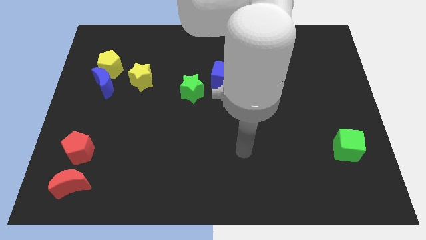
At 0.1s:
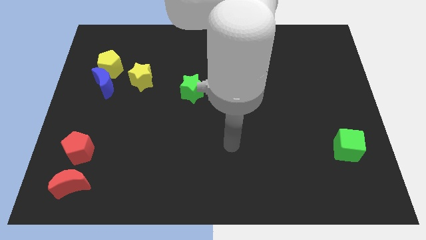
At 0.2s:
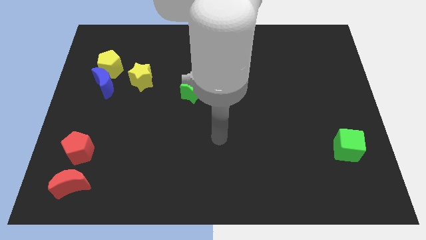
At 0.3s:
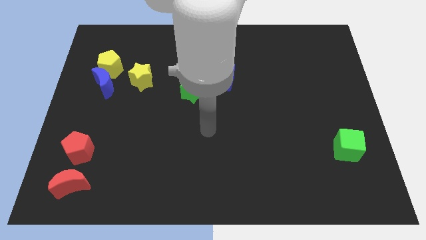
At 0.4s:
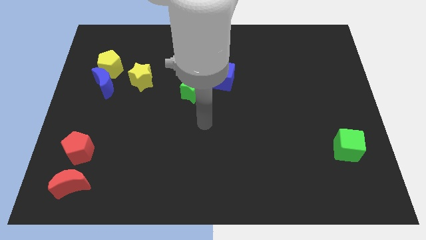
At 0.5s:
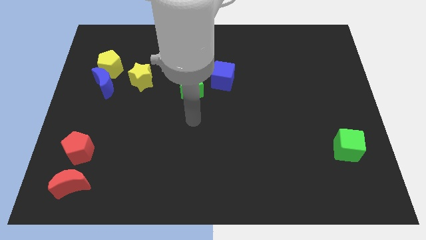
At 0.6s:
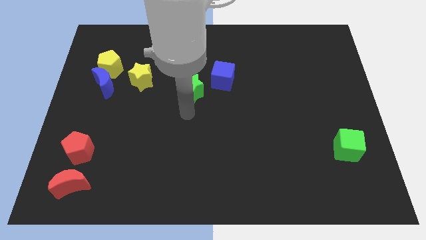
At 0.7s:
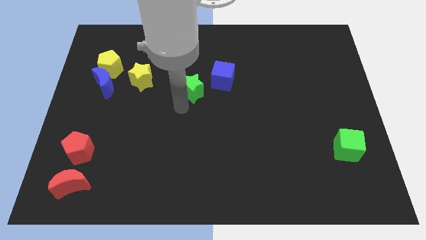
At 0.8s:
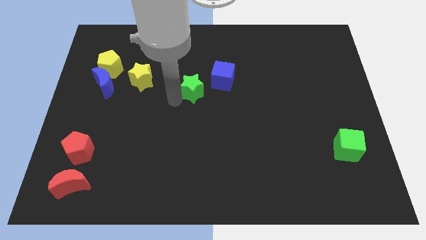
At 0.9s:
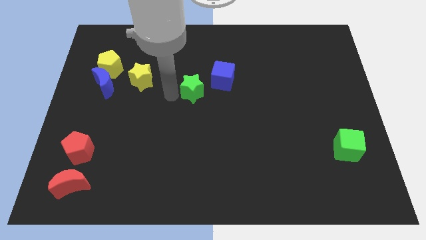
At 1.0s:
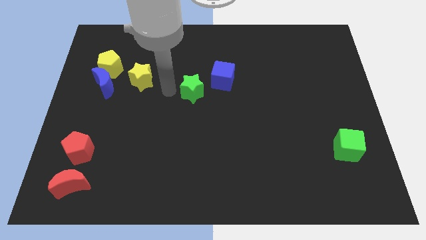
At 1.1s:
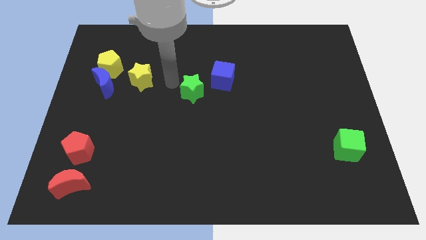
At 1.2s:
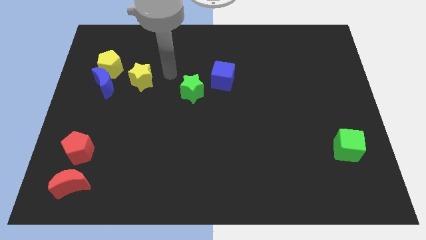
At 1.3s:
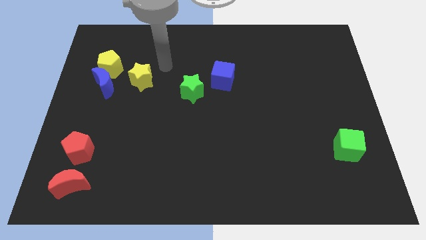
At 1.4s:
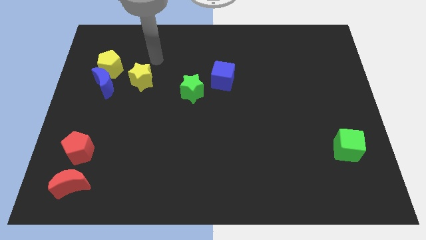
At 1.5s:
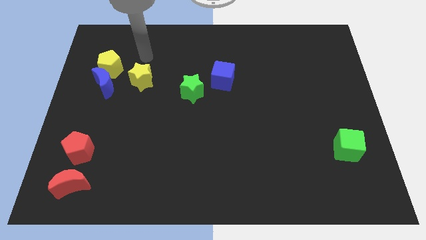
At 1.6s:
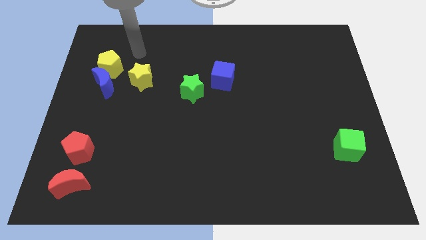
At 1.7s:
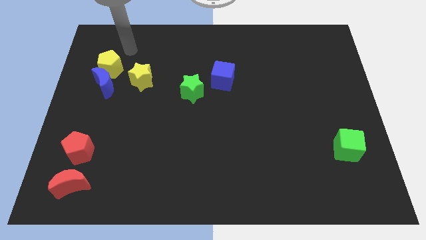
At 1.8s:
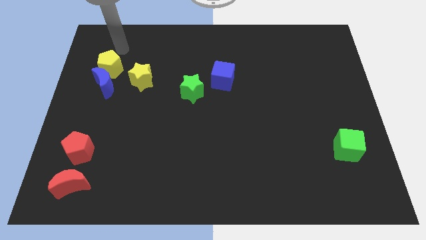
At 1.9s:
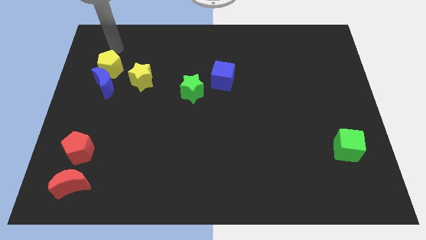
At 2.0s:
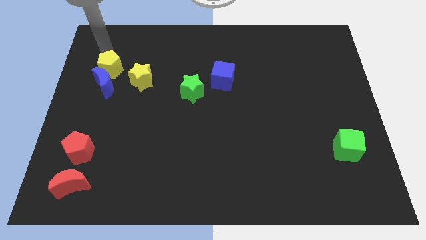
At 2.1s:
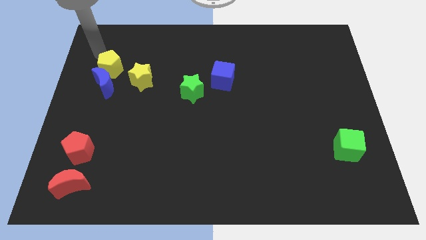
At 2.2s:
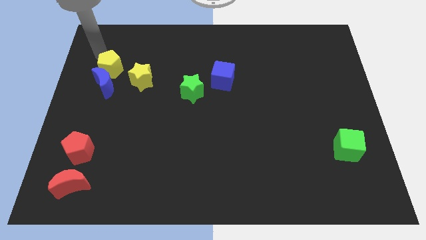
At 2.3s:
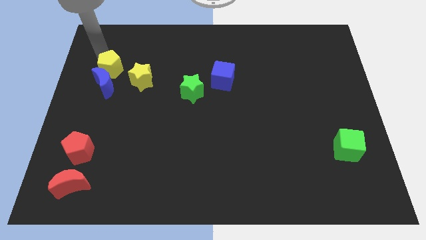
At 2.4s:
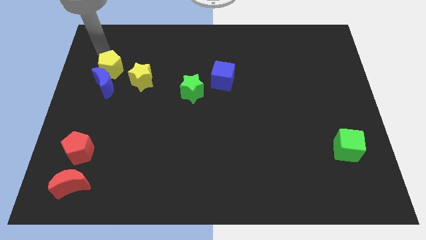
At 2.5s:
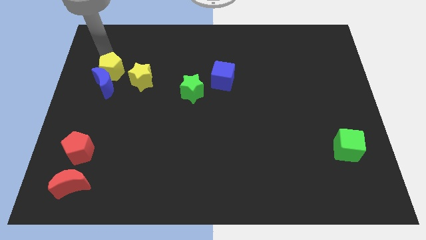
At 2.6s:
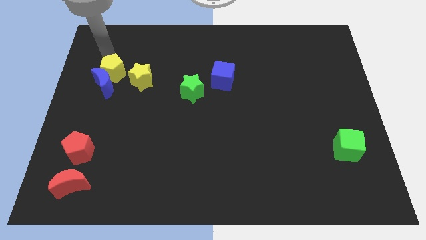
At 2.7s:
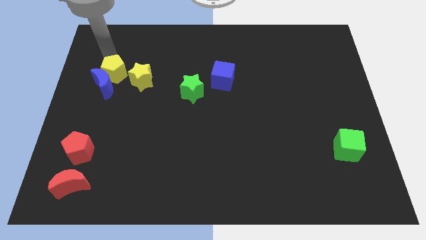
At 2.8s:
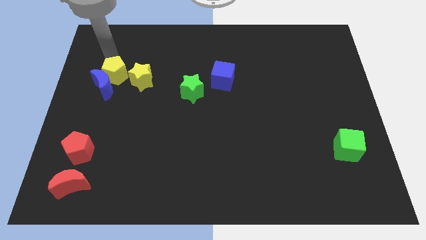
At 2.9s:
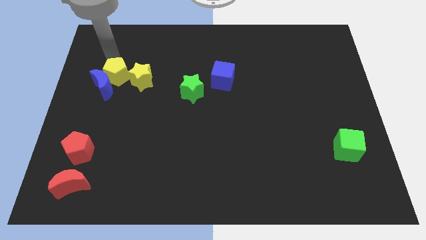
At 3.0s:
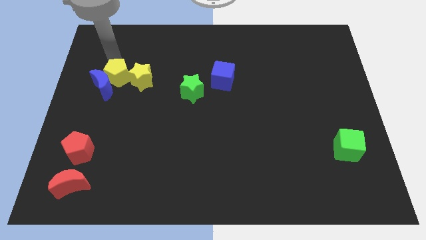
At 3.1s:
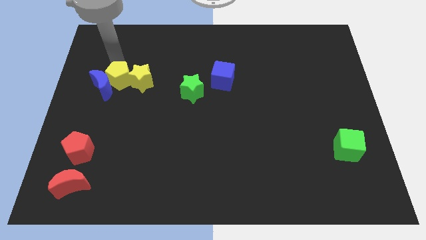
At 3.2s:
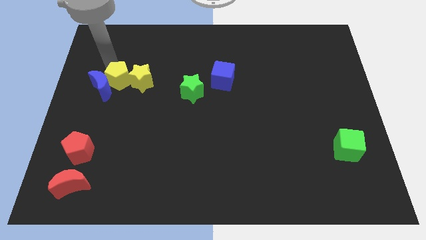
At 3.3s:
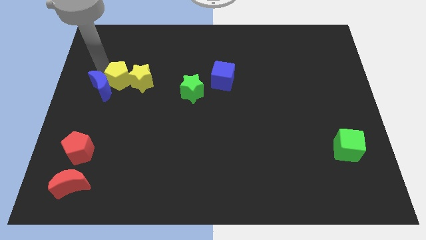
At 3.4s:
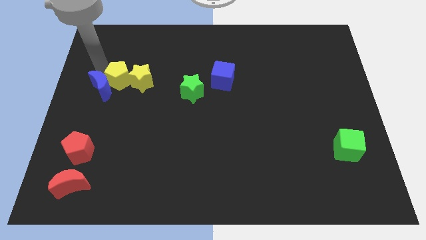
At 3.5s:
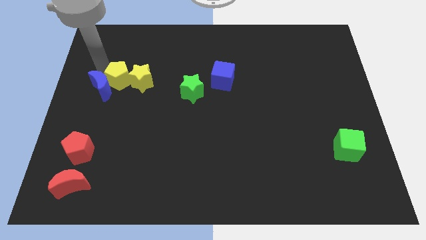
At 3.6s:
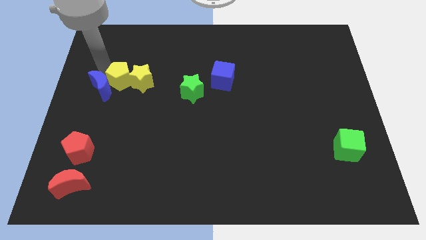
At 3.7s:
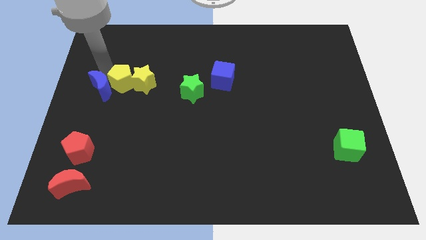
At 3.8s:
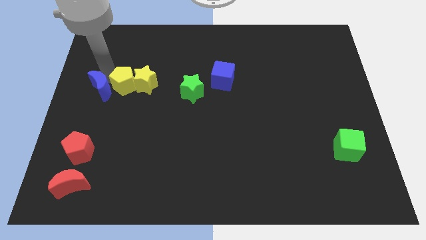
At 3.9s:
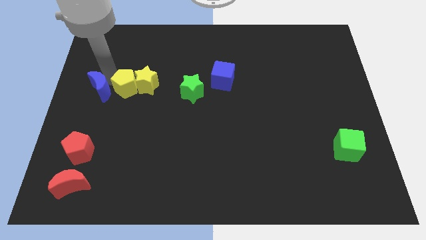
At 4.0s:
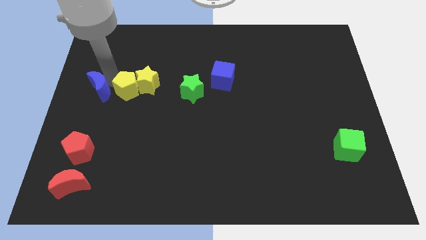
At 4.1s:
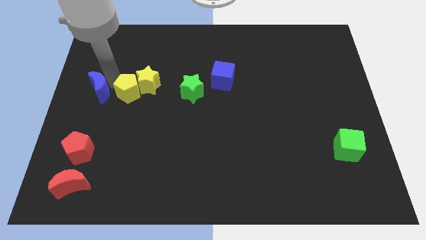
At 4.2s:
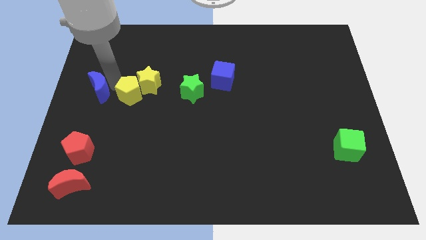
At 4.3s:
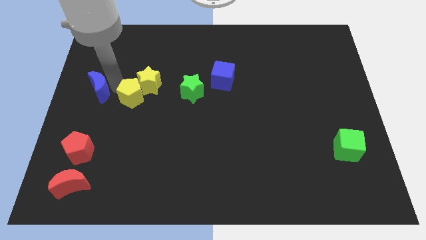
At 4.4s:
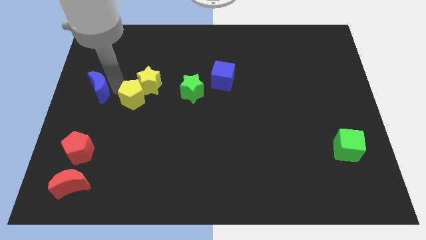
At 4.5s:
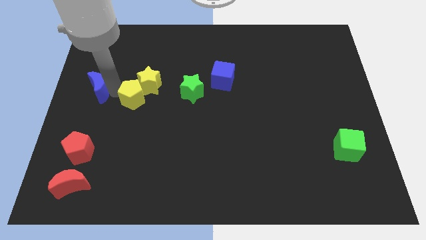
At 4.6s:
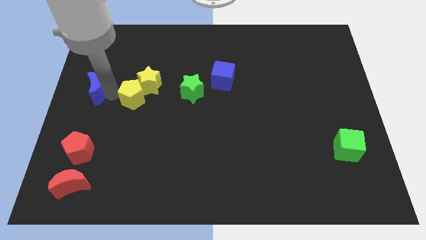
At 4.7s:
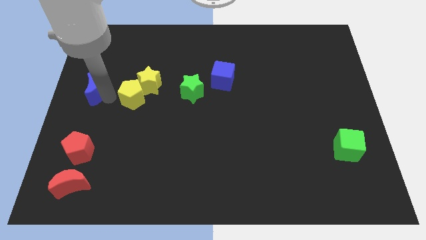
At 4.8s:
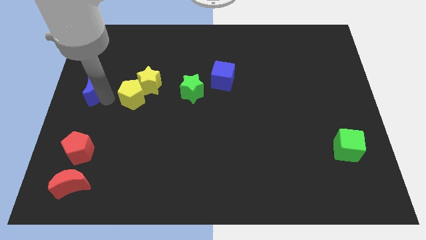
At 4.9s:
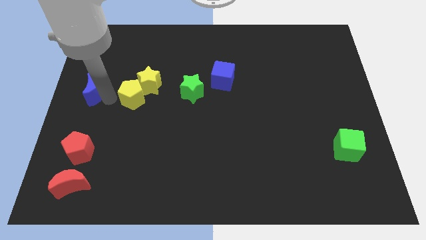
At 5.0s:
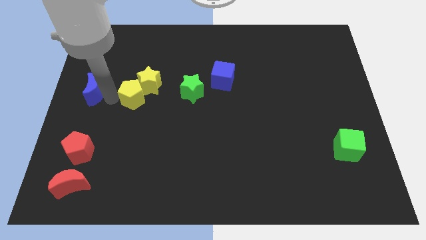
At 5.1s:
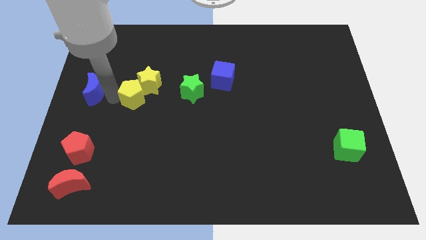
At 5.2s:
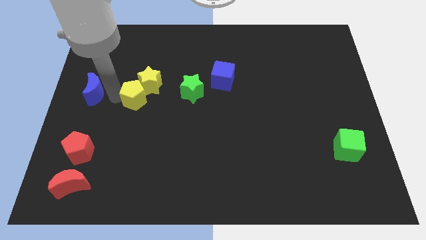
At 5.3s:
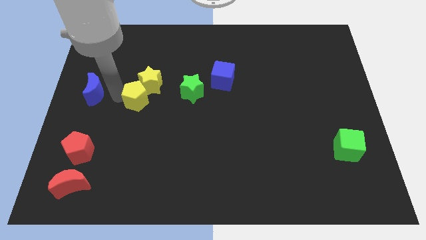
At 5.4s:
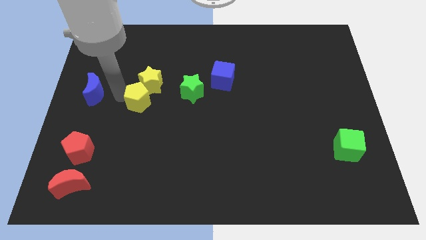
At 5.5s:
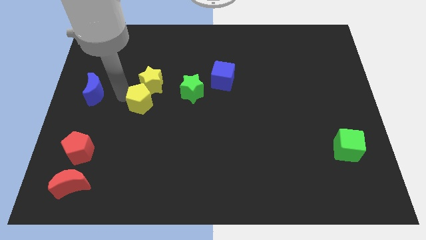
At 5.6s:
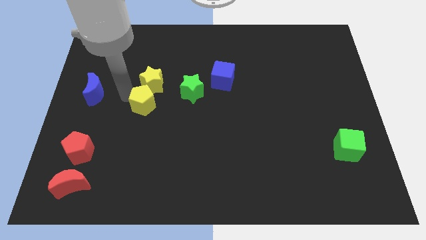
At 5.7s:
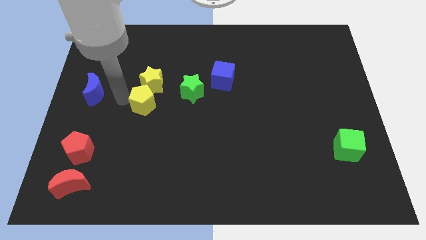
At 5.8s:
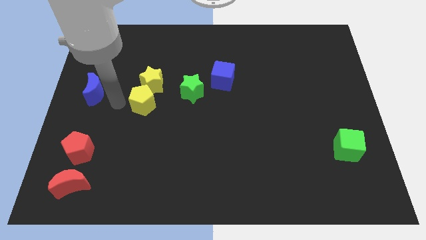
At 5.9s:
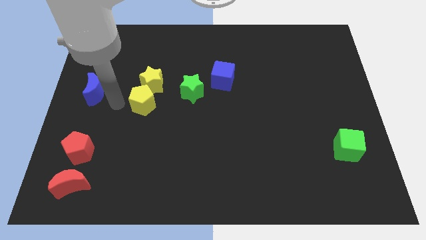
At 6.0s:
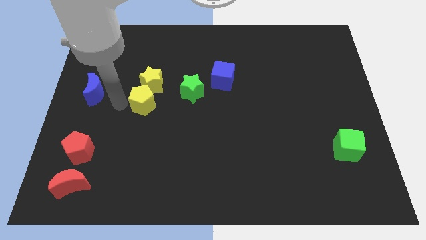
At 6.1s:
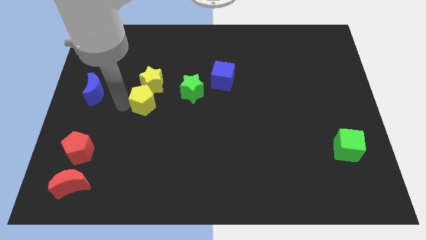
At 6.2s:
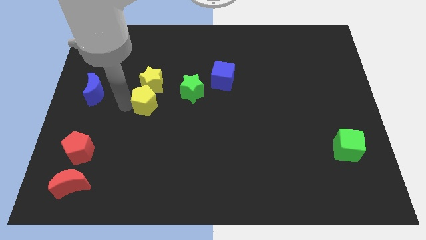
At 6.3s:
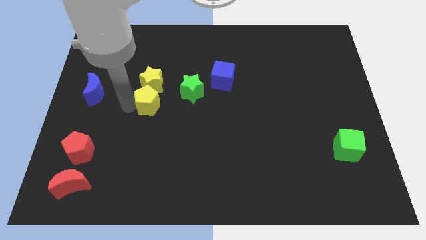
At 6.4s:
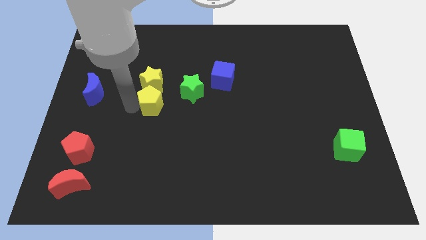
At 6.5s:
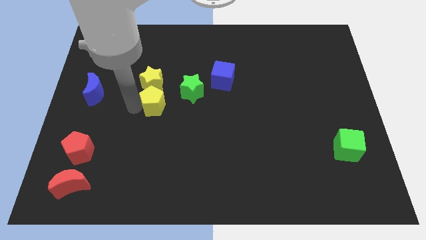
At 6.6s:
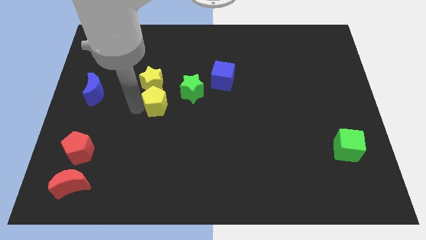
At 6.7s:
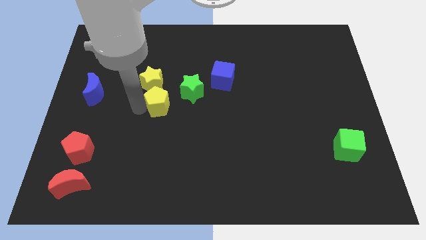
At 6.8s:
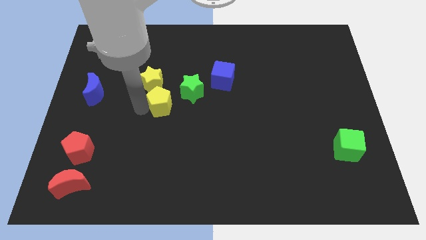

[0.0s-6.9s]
move the yellow pentagon to the middle
